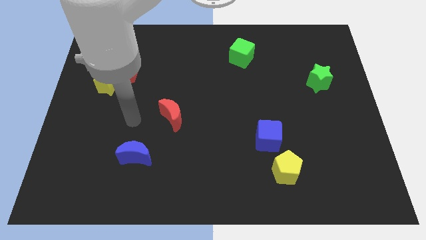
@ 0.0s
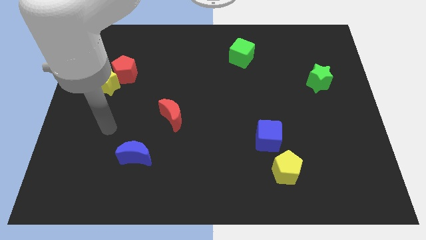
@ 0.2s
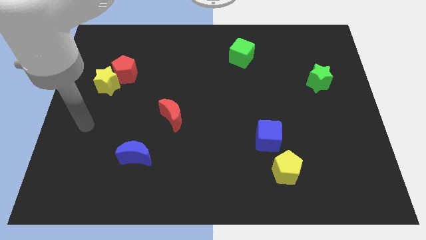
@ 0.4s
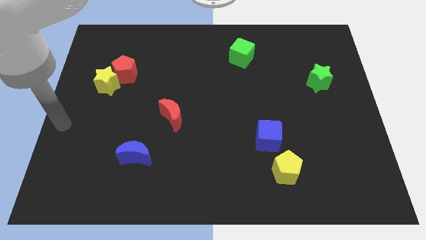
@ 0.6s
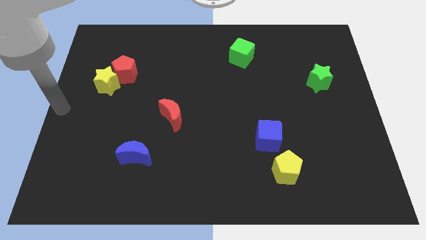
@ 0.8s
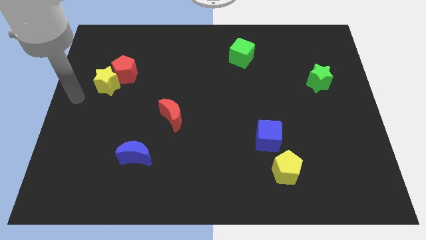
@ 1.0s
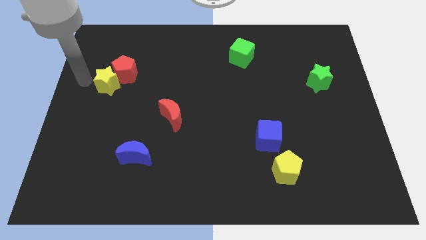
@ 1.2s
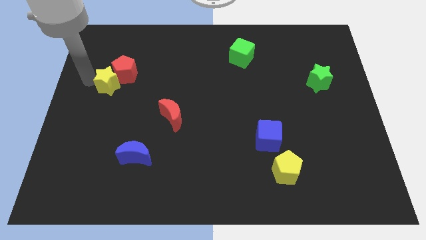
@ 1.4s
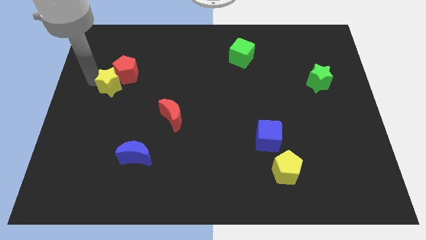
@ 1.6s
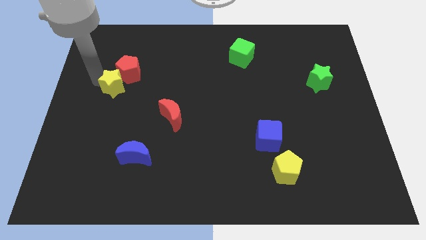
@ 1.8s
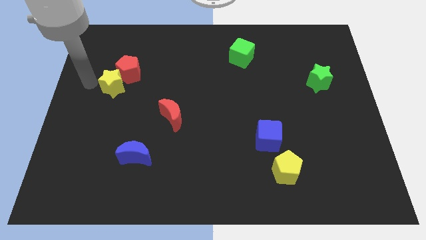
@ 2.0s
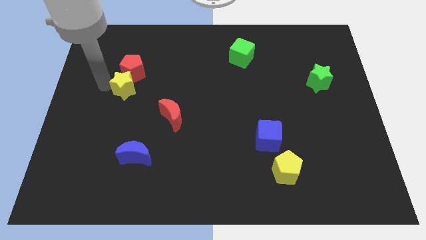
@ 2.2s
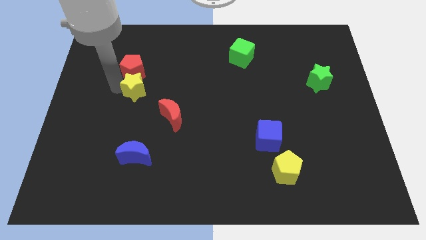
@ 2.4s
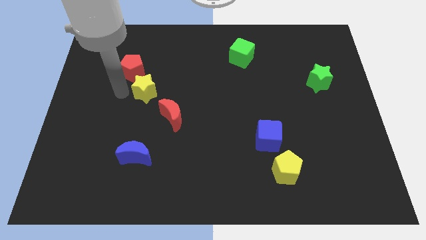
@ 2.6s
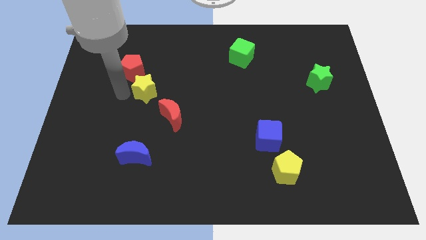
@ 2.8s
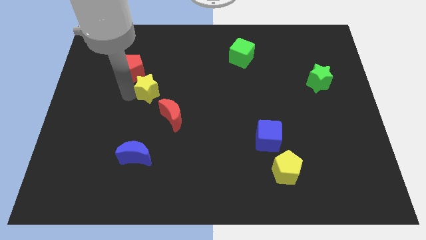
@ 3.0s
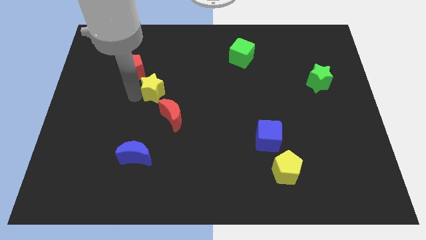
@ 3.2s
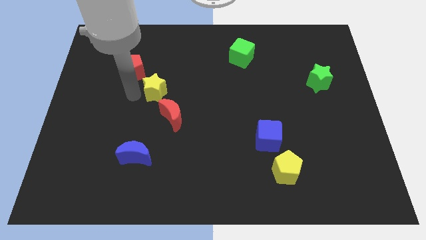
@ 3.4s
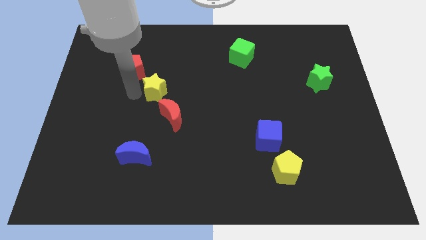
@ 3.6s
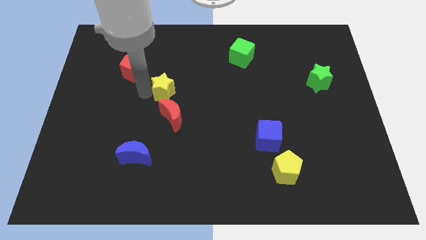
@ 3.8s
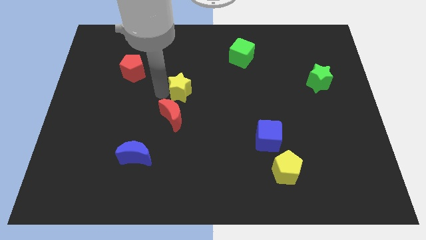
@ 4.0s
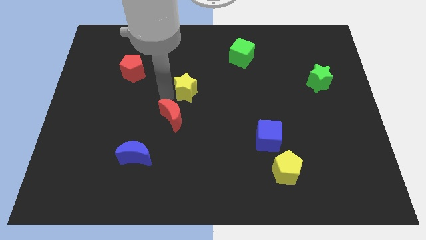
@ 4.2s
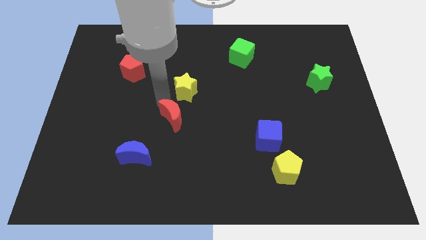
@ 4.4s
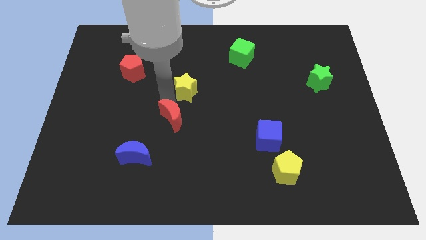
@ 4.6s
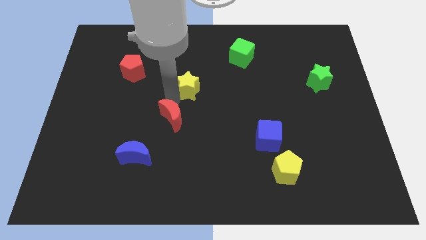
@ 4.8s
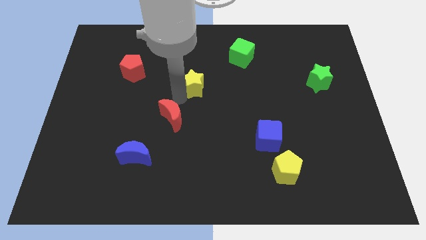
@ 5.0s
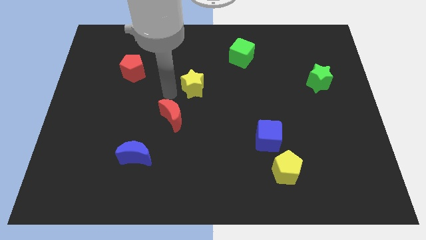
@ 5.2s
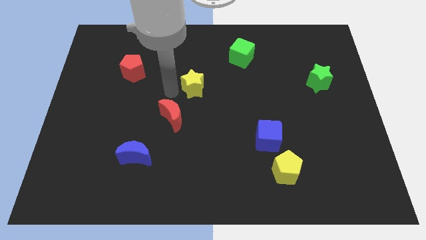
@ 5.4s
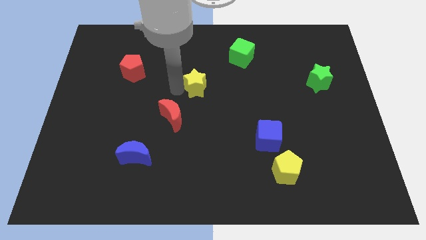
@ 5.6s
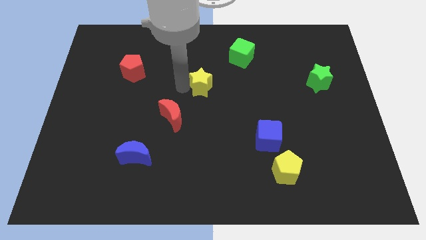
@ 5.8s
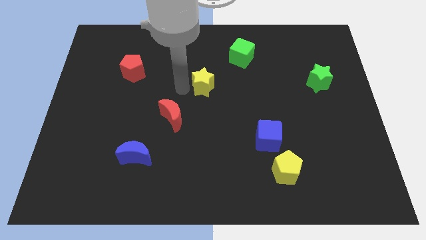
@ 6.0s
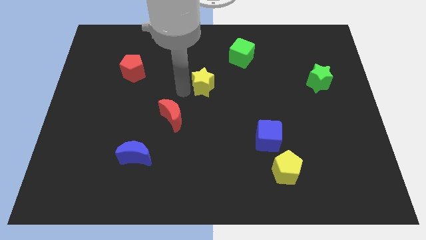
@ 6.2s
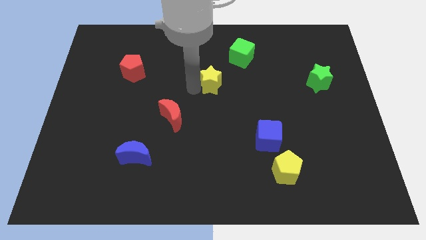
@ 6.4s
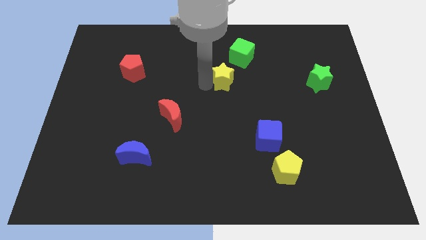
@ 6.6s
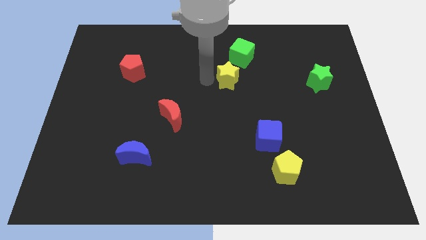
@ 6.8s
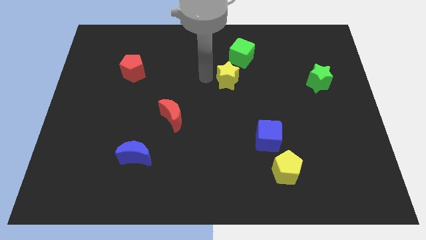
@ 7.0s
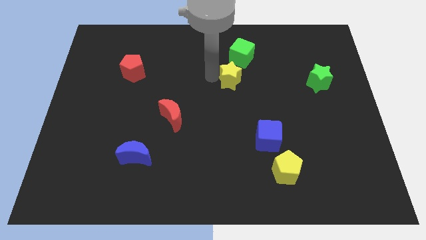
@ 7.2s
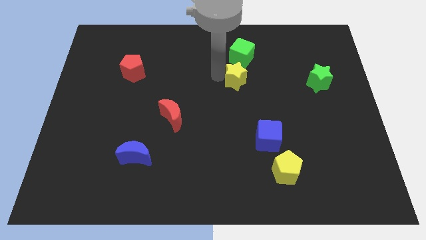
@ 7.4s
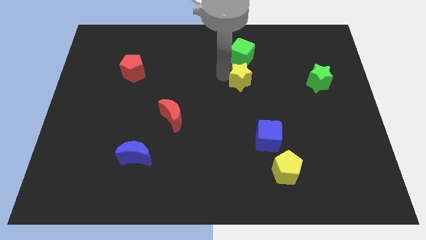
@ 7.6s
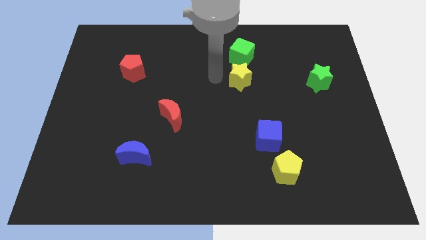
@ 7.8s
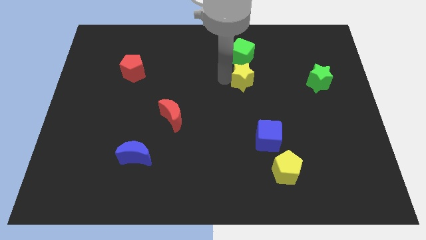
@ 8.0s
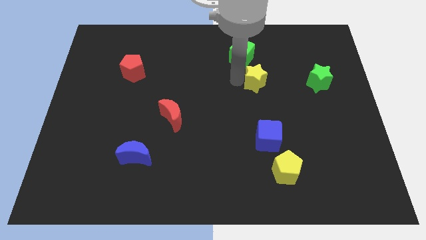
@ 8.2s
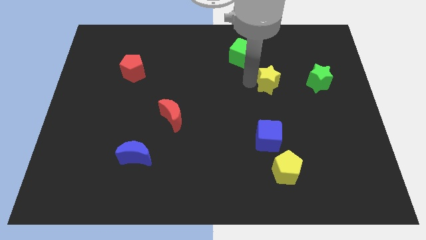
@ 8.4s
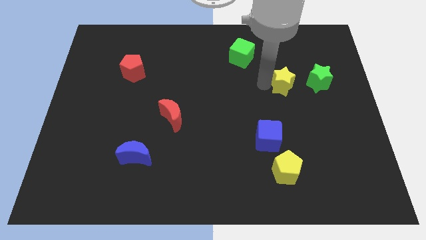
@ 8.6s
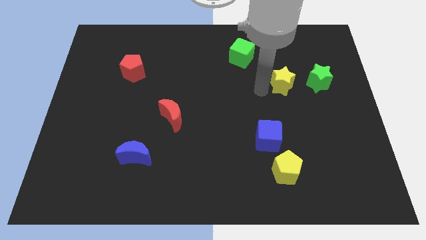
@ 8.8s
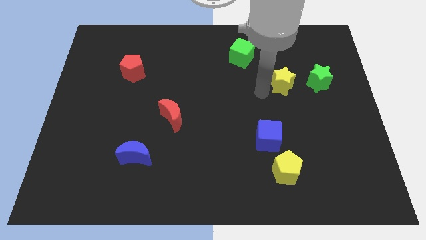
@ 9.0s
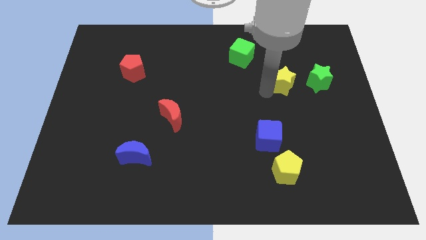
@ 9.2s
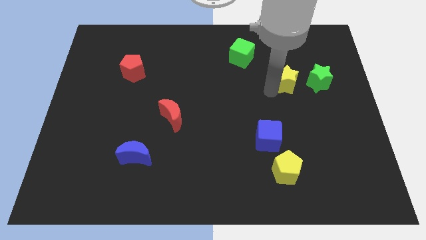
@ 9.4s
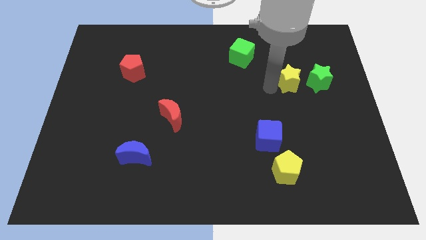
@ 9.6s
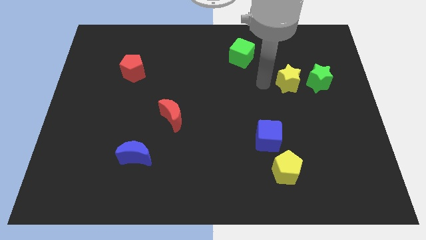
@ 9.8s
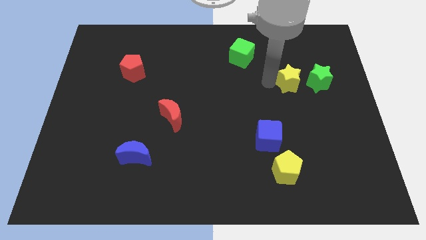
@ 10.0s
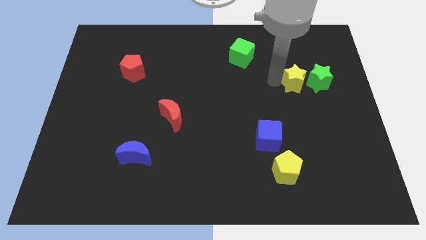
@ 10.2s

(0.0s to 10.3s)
move the yellow star towards the green star

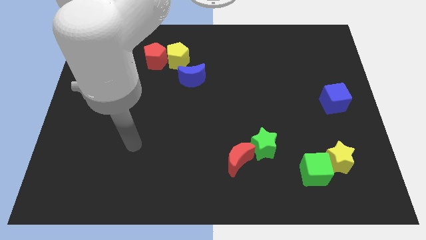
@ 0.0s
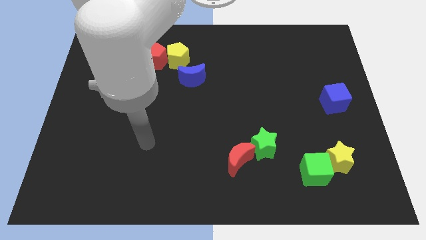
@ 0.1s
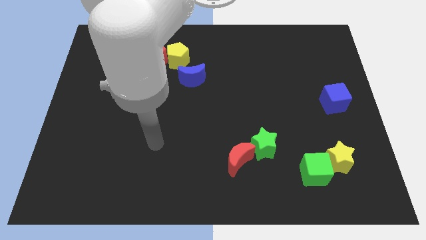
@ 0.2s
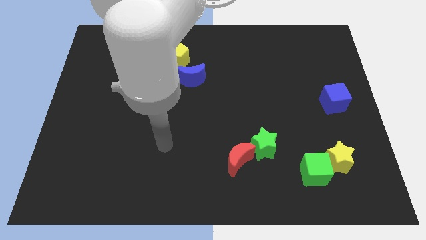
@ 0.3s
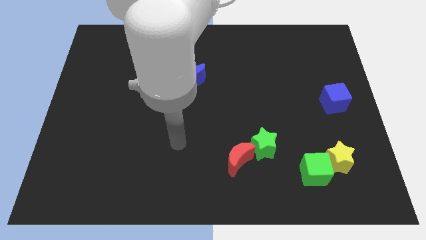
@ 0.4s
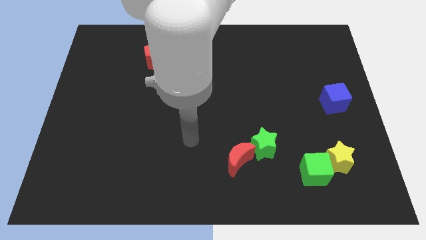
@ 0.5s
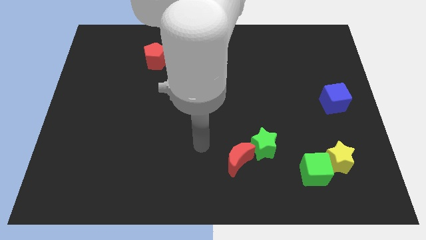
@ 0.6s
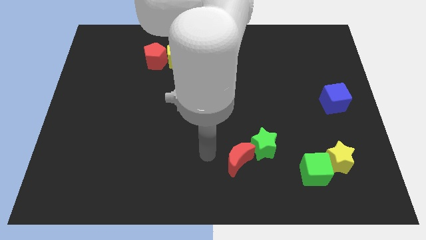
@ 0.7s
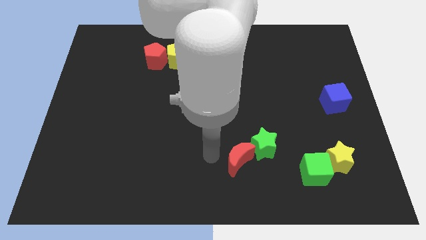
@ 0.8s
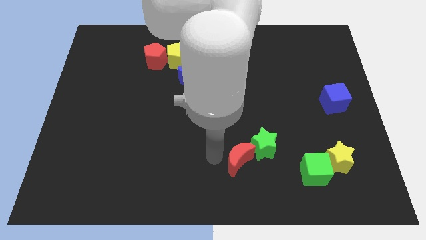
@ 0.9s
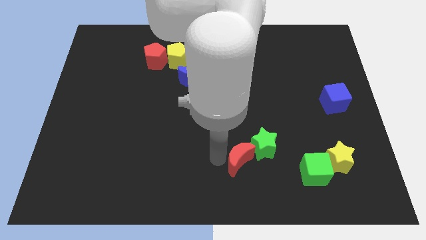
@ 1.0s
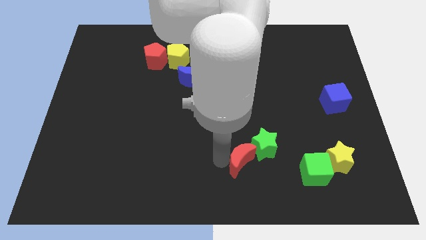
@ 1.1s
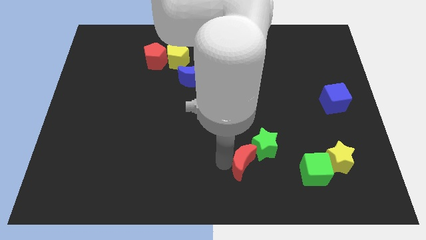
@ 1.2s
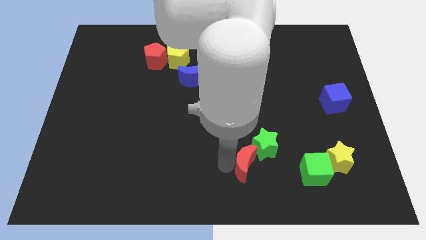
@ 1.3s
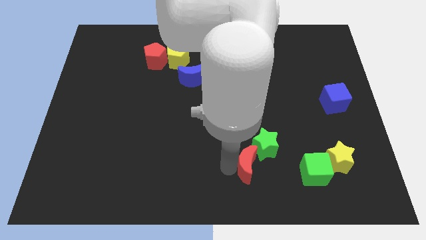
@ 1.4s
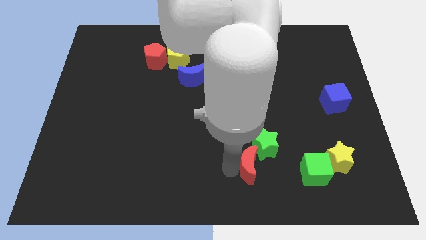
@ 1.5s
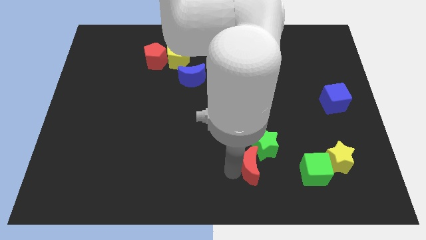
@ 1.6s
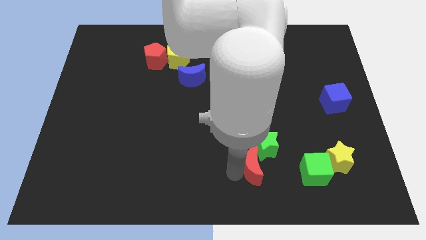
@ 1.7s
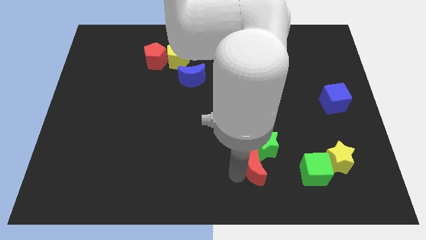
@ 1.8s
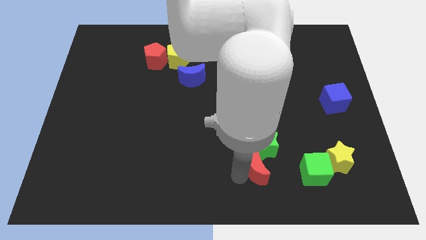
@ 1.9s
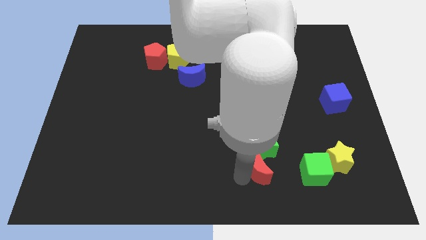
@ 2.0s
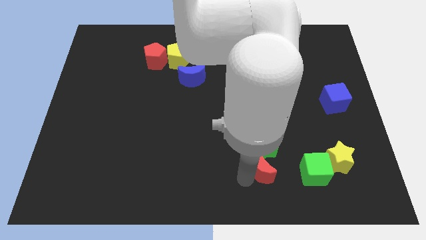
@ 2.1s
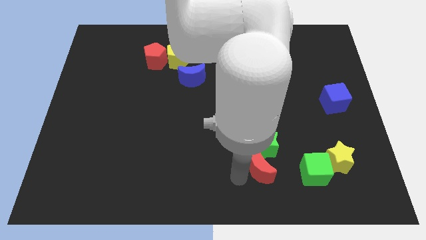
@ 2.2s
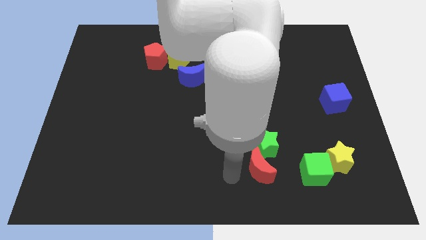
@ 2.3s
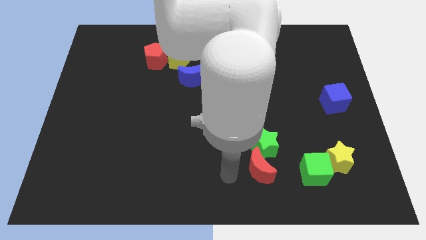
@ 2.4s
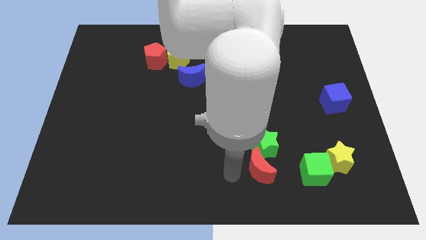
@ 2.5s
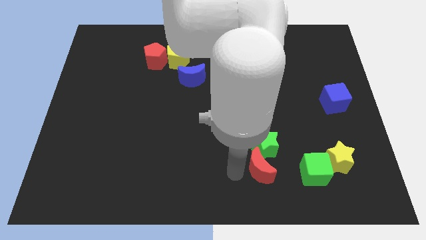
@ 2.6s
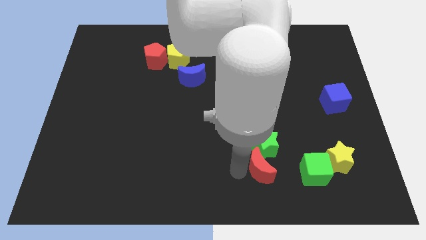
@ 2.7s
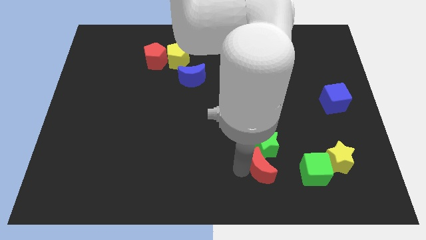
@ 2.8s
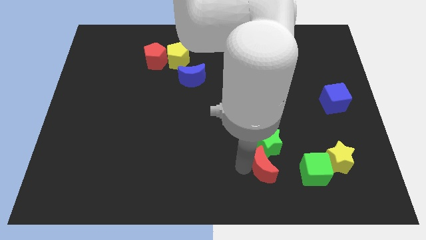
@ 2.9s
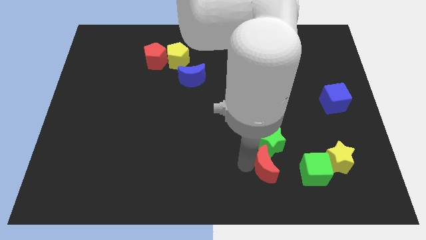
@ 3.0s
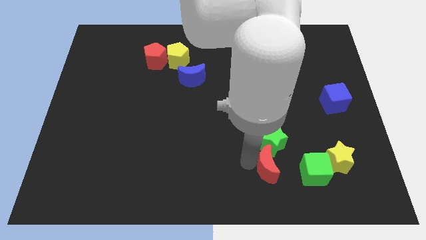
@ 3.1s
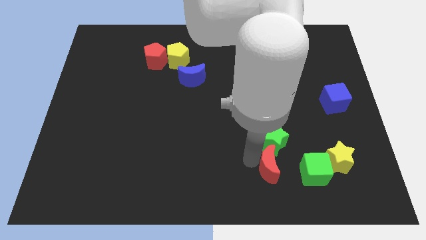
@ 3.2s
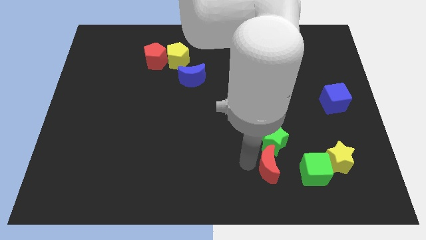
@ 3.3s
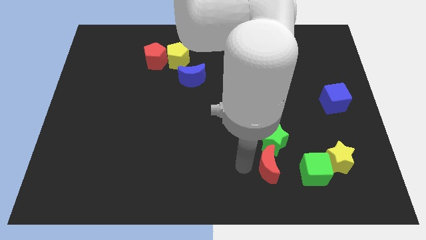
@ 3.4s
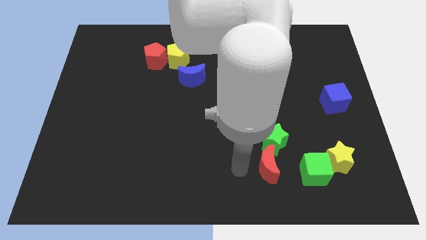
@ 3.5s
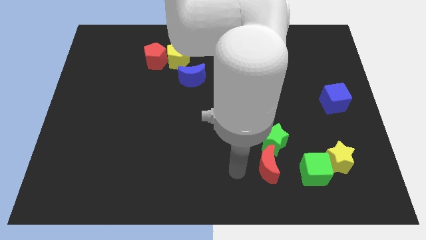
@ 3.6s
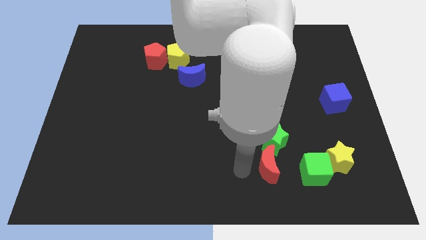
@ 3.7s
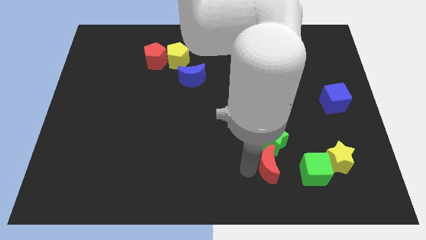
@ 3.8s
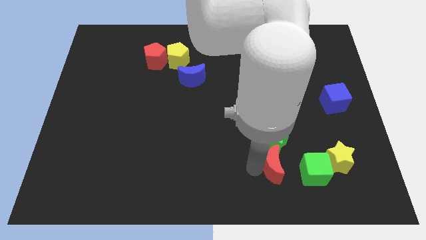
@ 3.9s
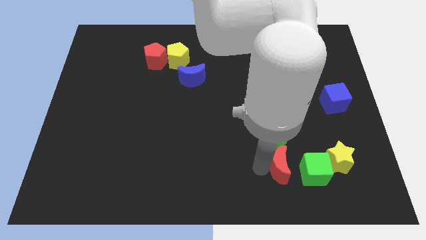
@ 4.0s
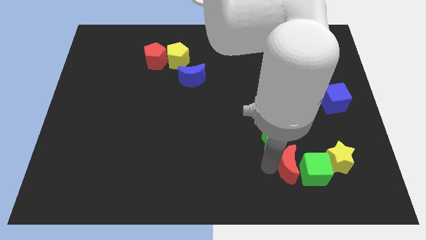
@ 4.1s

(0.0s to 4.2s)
push the red moon next to the green cube
